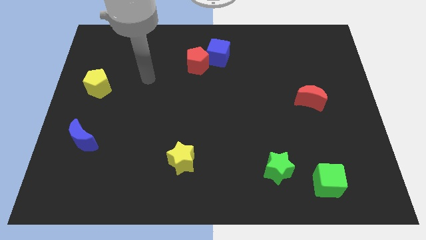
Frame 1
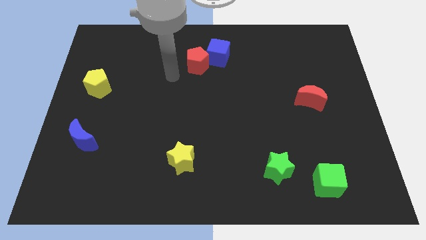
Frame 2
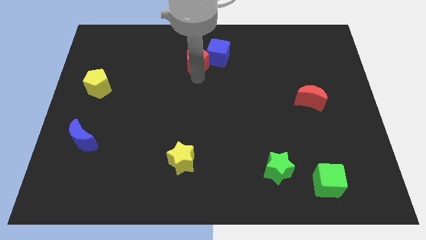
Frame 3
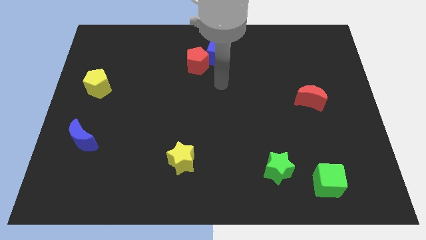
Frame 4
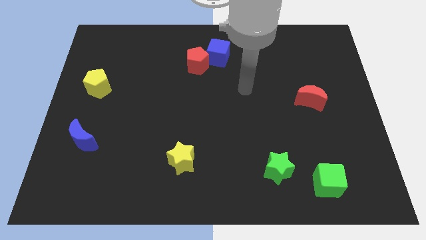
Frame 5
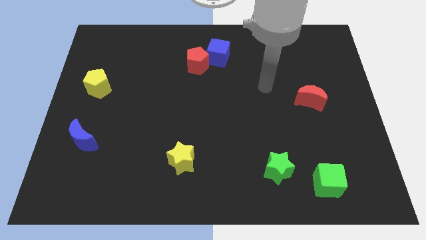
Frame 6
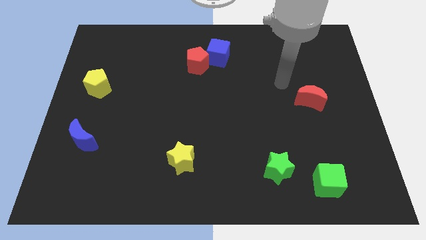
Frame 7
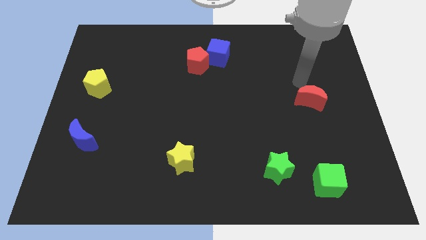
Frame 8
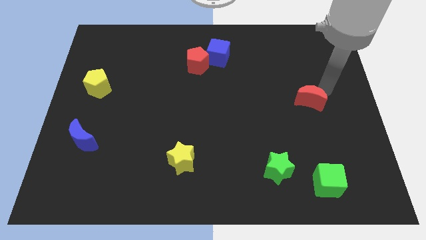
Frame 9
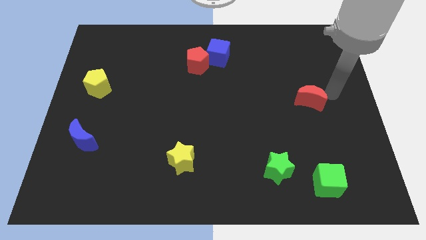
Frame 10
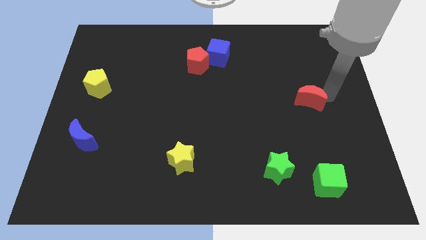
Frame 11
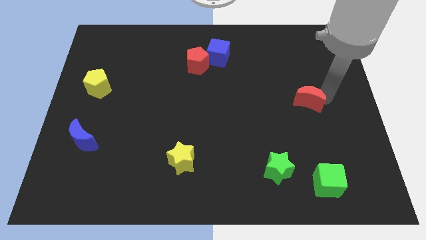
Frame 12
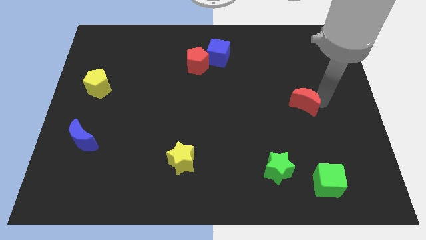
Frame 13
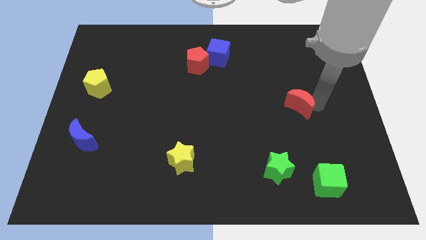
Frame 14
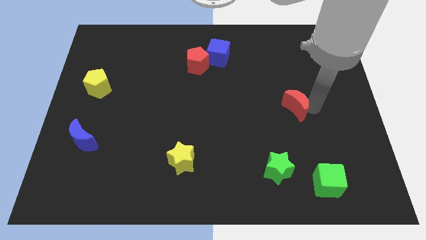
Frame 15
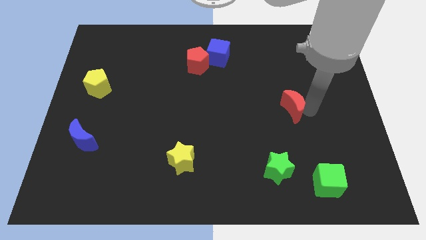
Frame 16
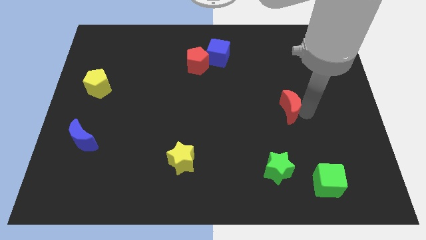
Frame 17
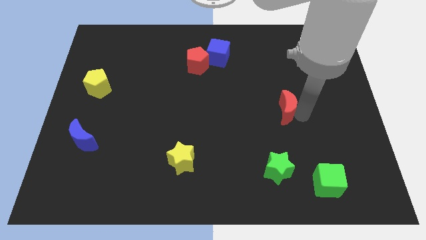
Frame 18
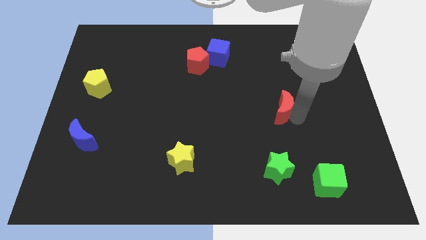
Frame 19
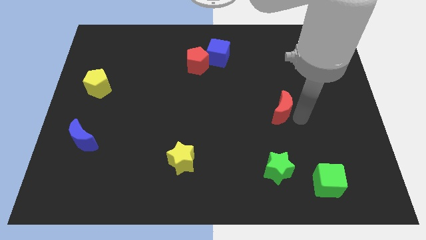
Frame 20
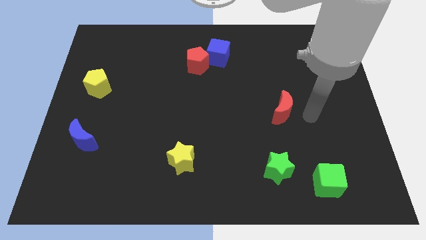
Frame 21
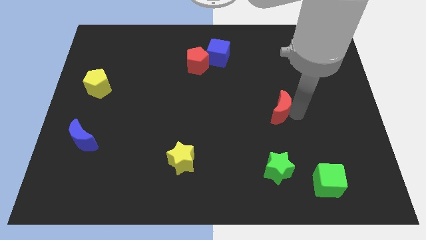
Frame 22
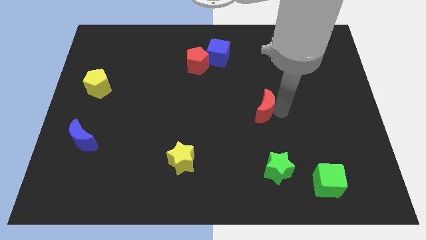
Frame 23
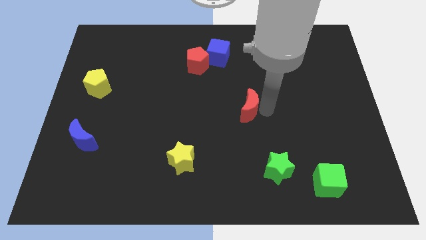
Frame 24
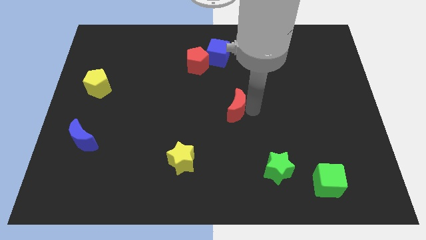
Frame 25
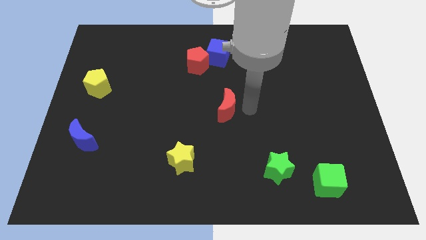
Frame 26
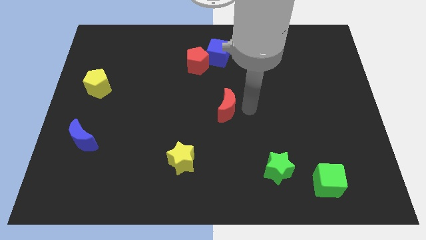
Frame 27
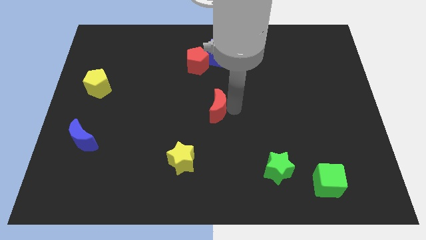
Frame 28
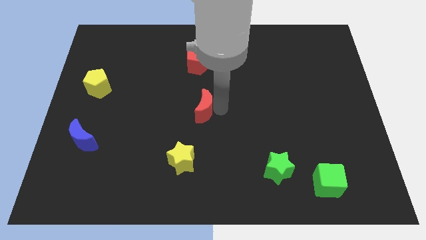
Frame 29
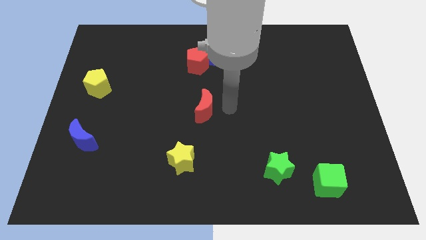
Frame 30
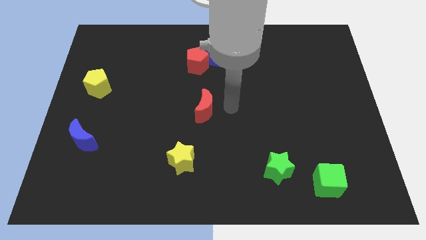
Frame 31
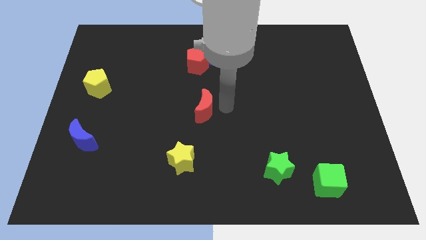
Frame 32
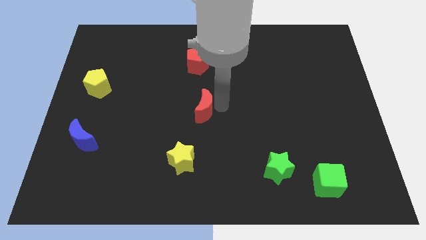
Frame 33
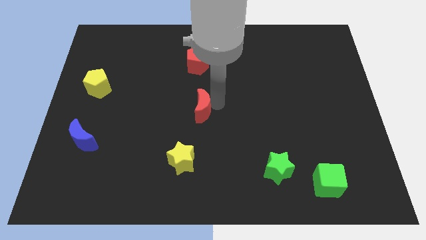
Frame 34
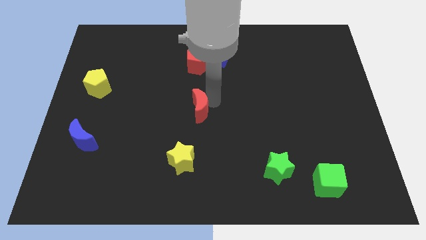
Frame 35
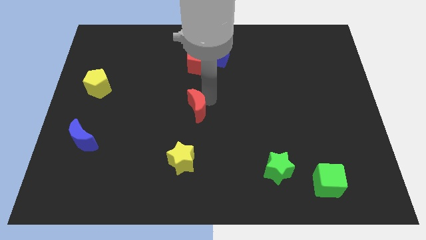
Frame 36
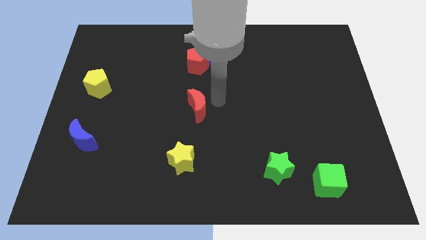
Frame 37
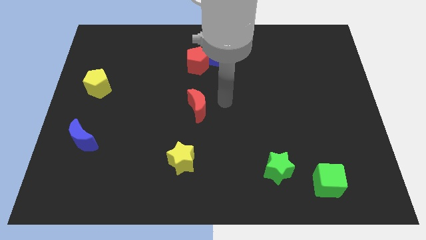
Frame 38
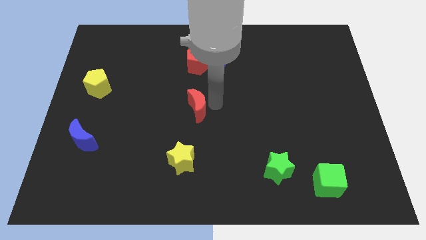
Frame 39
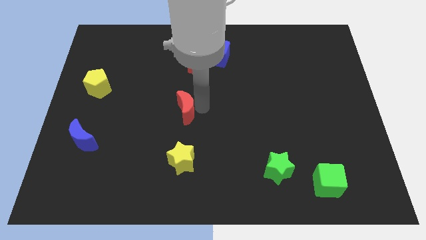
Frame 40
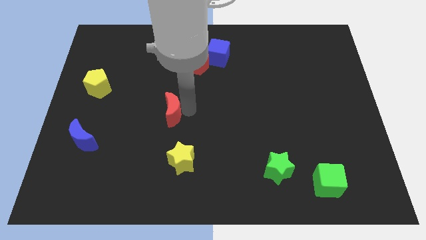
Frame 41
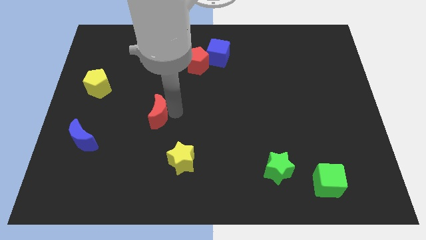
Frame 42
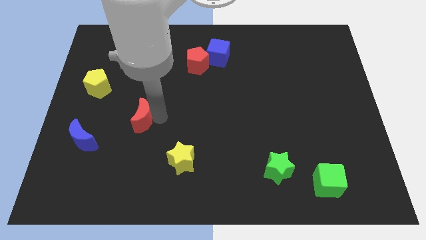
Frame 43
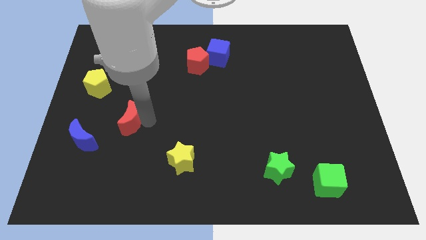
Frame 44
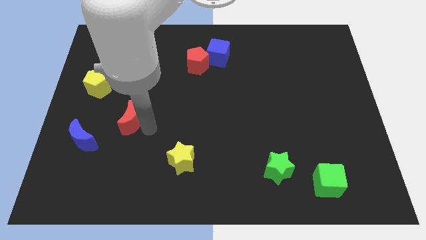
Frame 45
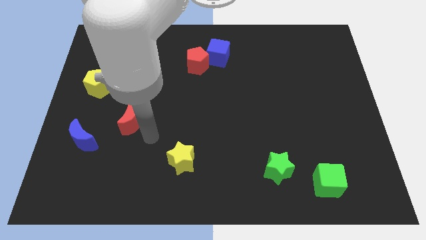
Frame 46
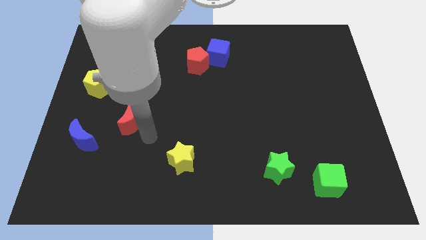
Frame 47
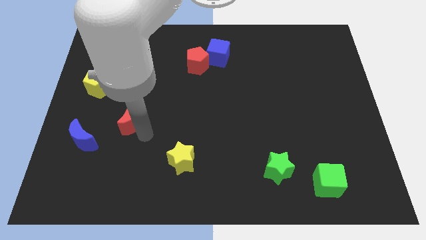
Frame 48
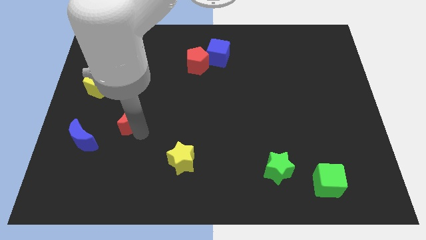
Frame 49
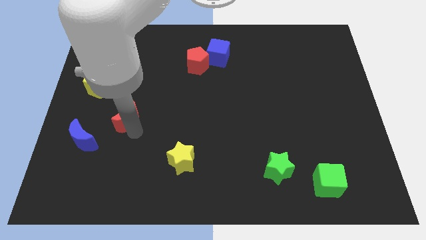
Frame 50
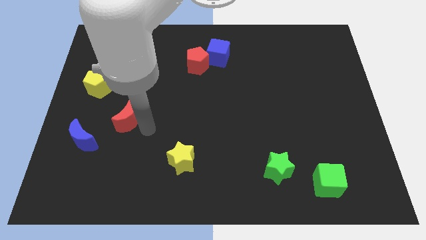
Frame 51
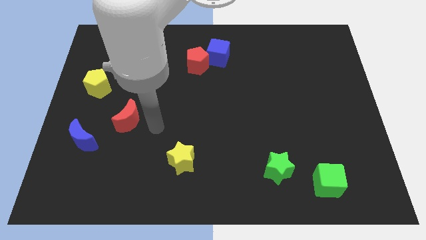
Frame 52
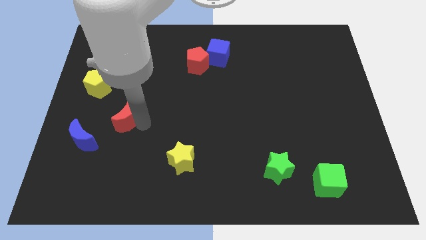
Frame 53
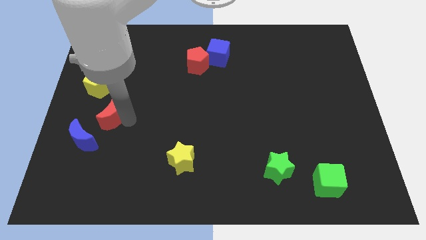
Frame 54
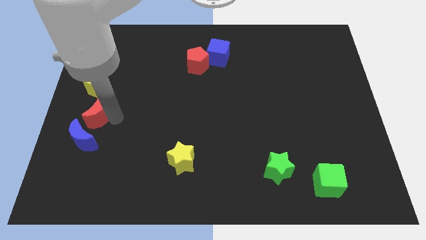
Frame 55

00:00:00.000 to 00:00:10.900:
put the red moon to the left side

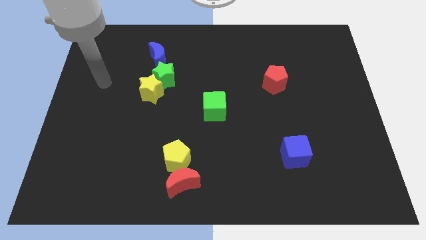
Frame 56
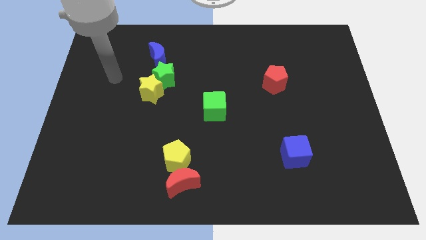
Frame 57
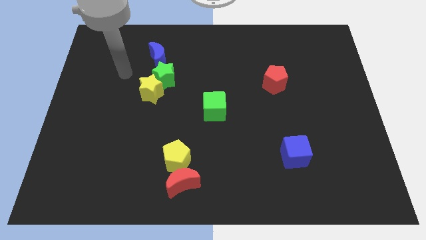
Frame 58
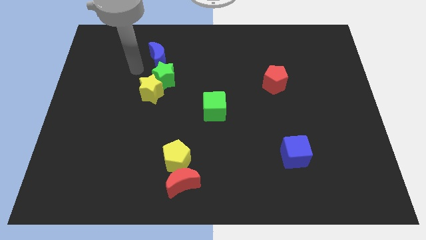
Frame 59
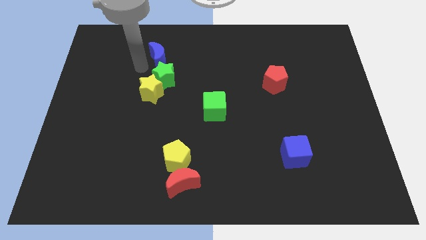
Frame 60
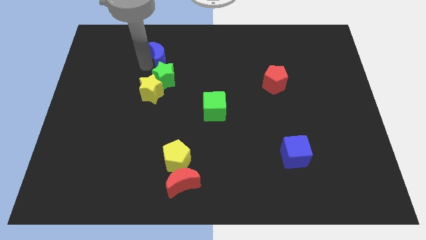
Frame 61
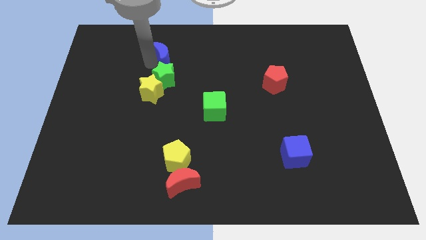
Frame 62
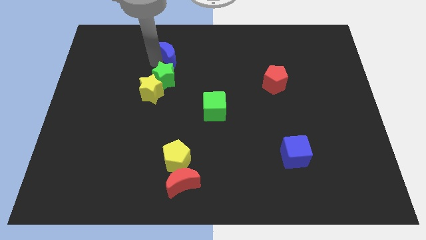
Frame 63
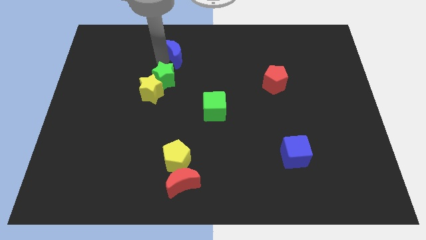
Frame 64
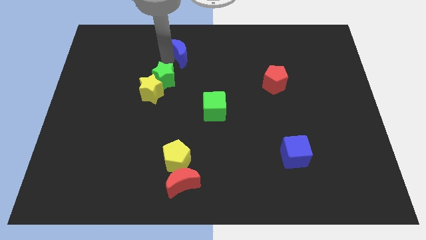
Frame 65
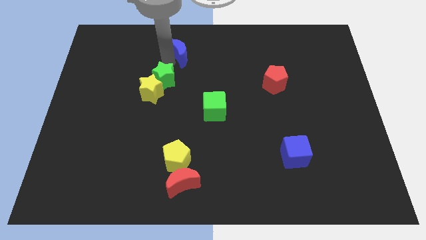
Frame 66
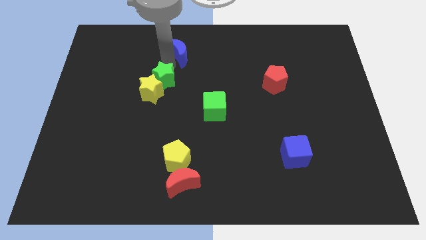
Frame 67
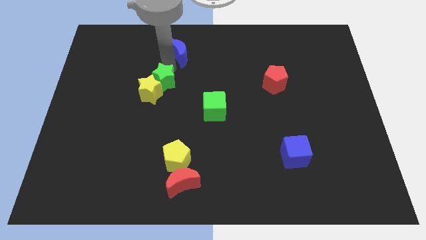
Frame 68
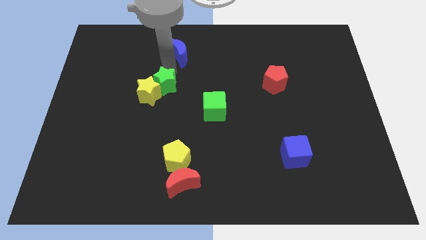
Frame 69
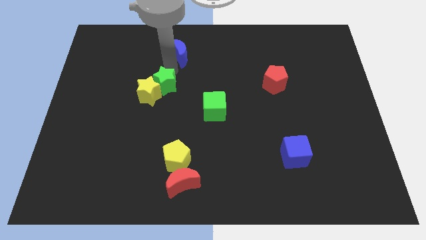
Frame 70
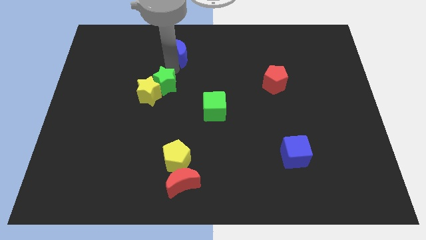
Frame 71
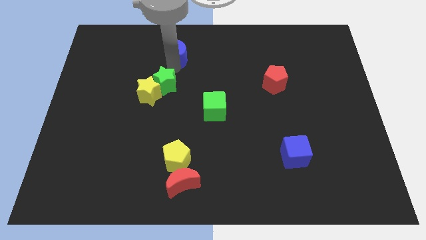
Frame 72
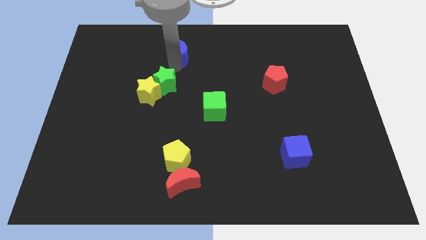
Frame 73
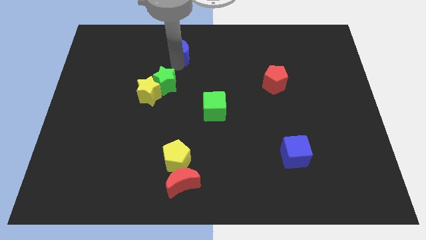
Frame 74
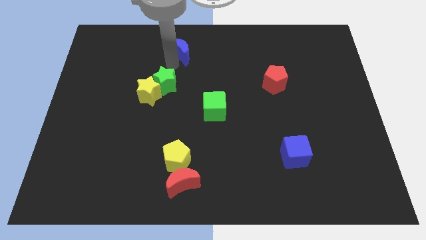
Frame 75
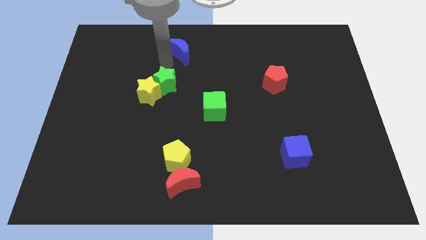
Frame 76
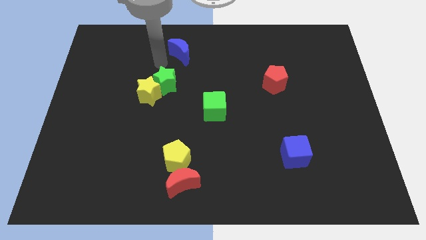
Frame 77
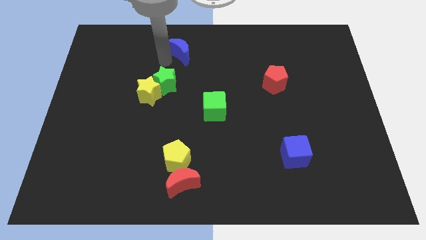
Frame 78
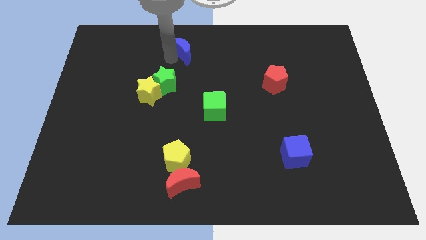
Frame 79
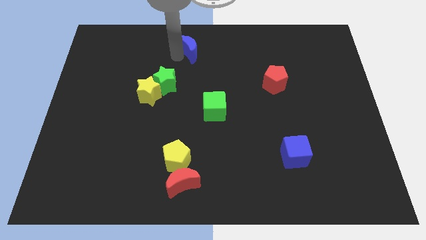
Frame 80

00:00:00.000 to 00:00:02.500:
put the blue moon to the towards your base
